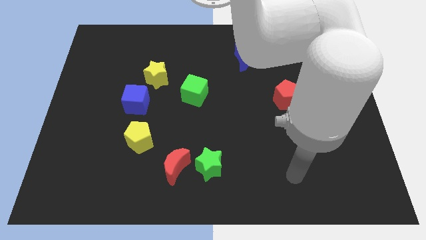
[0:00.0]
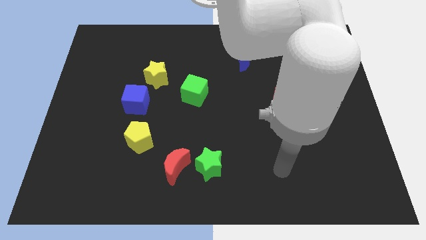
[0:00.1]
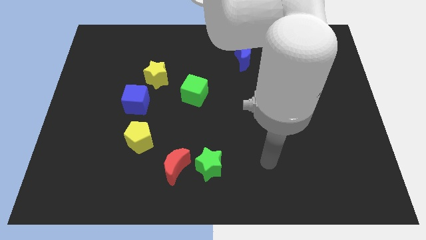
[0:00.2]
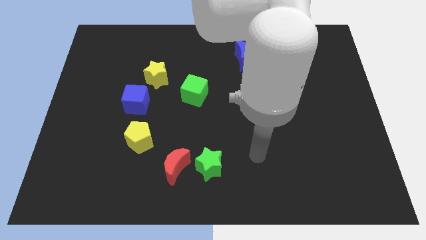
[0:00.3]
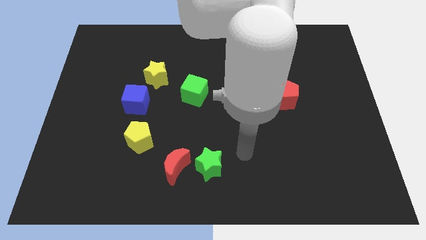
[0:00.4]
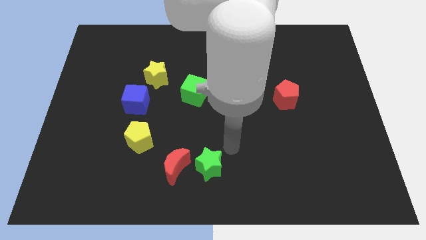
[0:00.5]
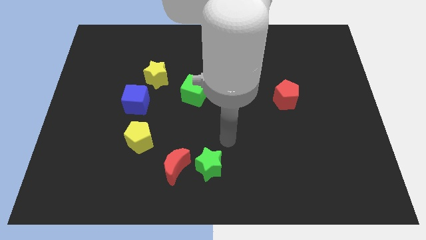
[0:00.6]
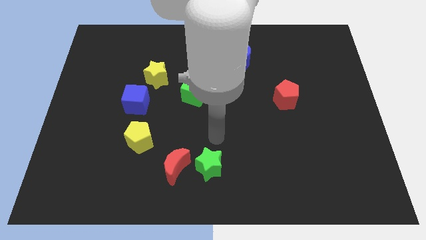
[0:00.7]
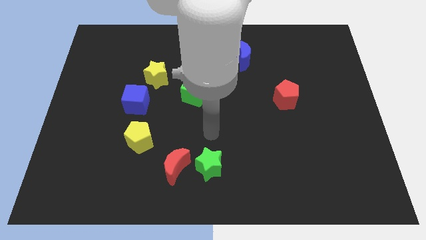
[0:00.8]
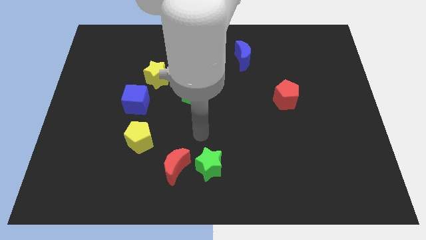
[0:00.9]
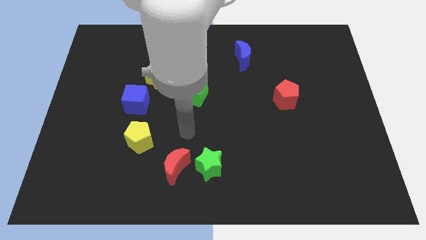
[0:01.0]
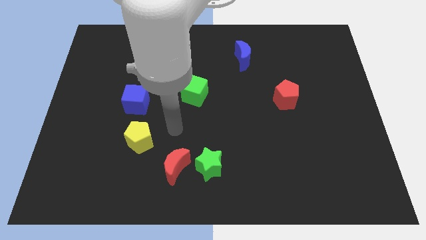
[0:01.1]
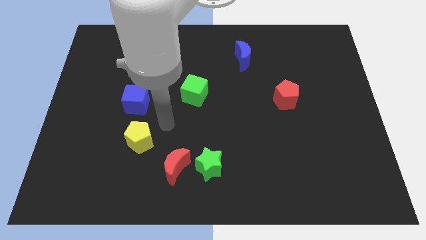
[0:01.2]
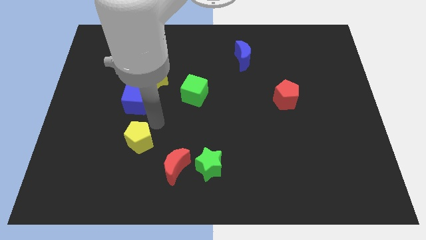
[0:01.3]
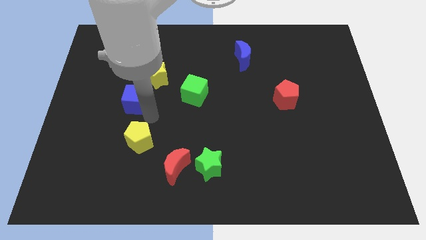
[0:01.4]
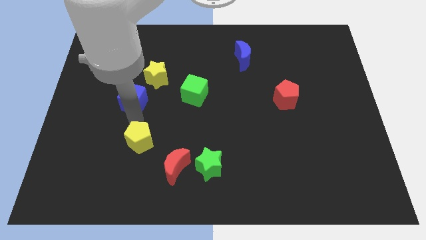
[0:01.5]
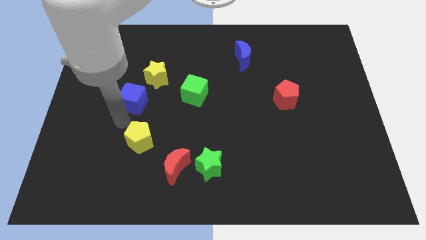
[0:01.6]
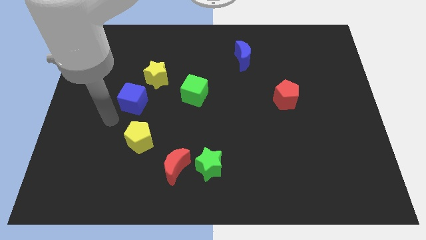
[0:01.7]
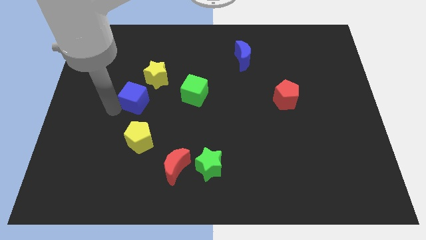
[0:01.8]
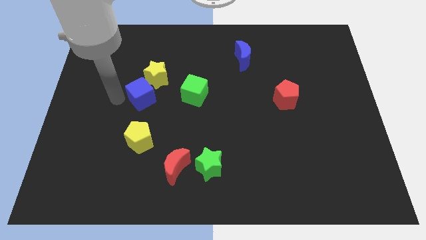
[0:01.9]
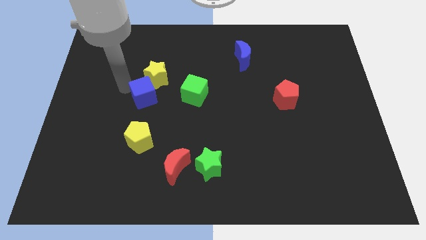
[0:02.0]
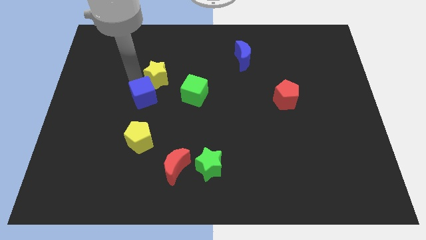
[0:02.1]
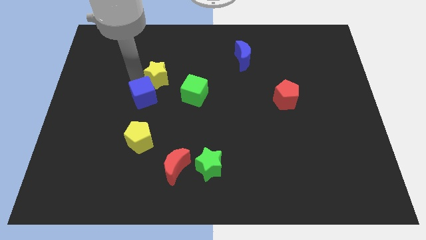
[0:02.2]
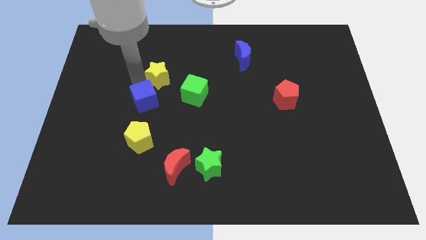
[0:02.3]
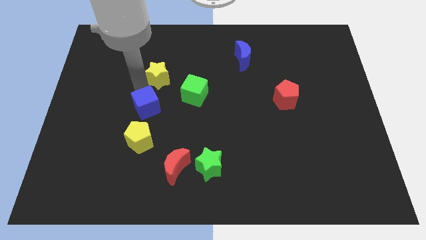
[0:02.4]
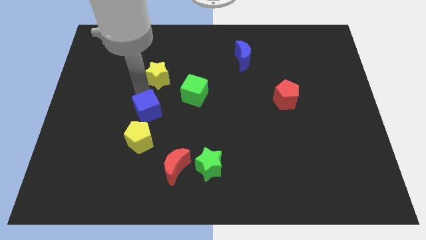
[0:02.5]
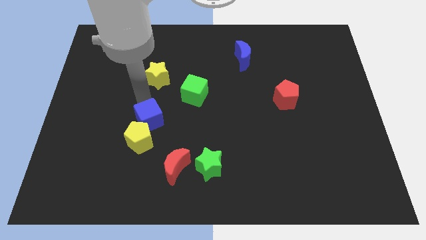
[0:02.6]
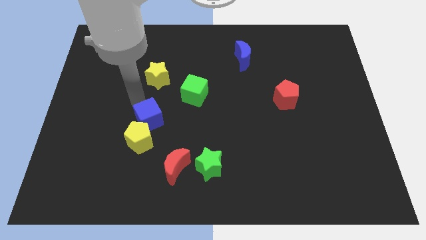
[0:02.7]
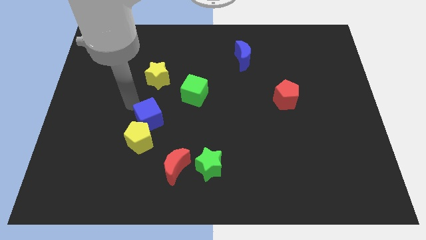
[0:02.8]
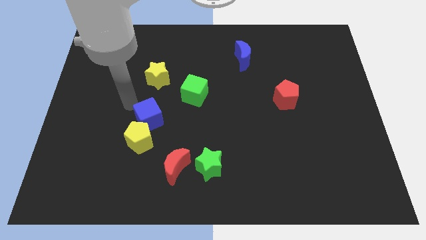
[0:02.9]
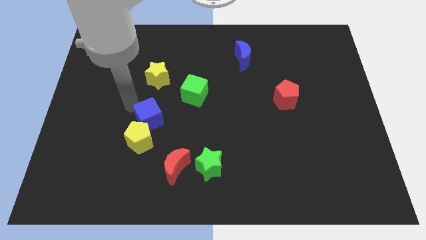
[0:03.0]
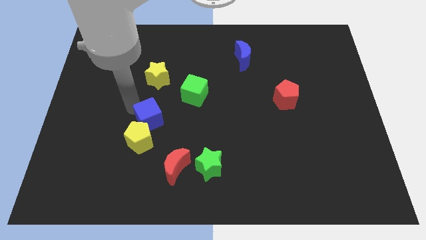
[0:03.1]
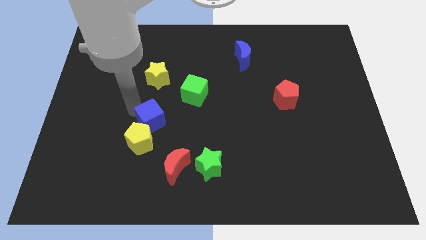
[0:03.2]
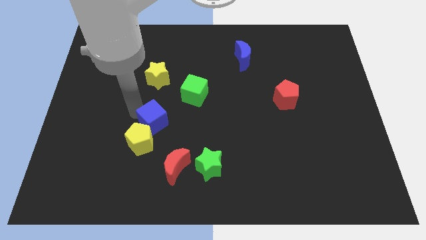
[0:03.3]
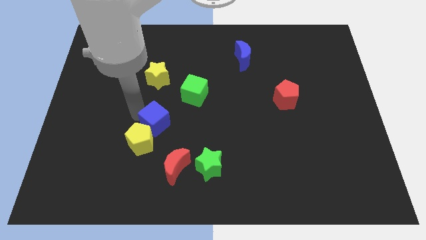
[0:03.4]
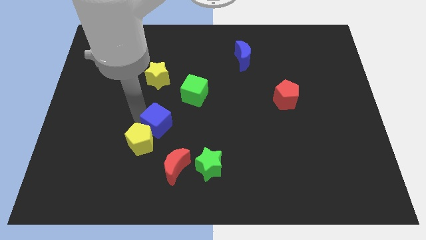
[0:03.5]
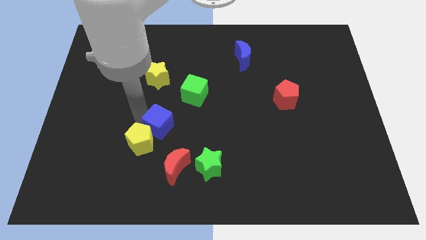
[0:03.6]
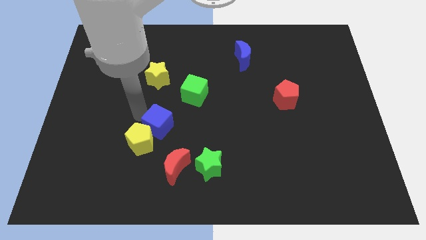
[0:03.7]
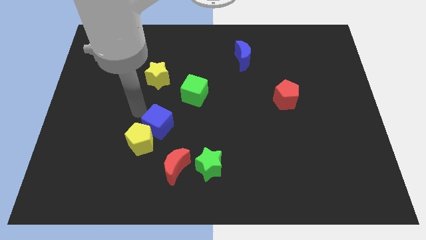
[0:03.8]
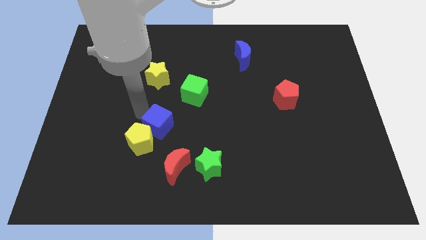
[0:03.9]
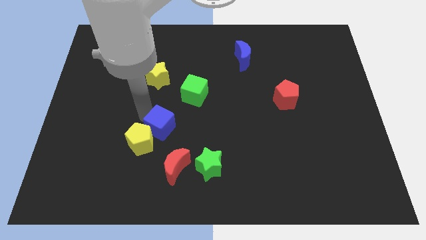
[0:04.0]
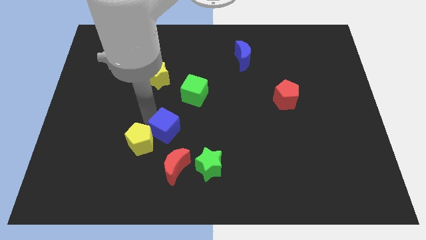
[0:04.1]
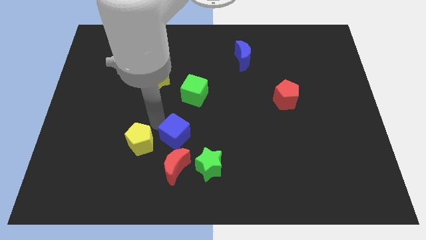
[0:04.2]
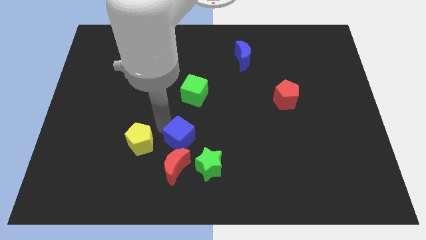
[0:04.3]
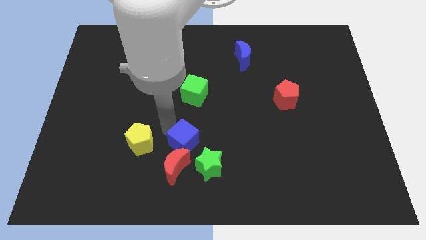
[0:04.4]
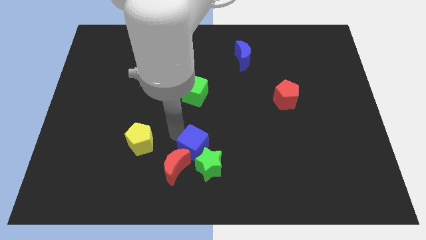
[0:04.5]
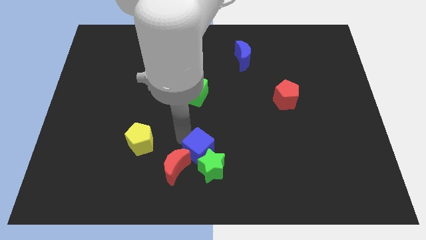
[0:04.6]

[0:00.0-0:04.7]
put the blue cube to the green star

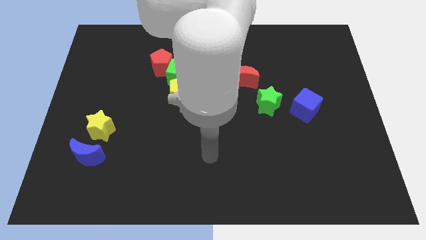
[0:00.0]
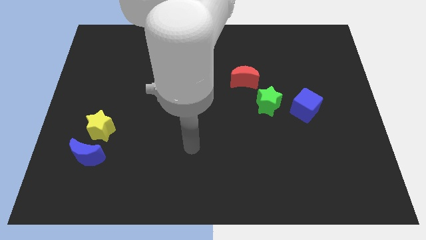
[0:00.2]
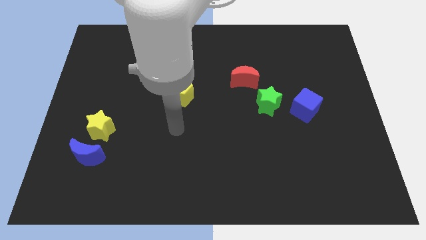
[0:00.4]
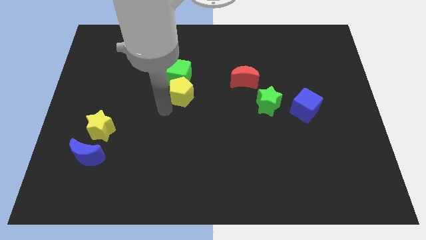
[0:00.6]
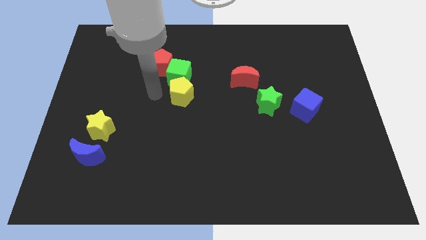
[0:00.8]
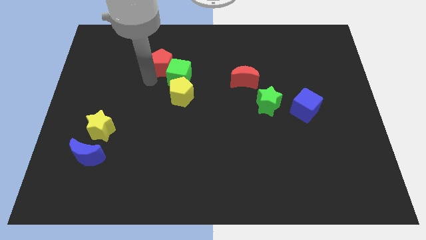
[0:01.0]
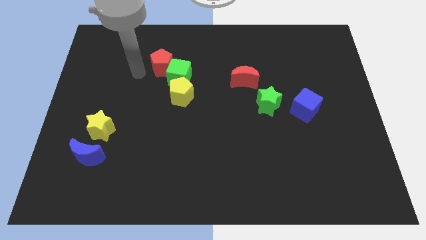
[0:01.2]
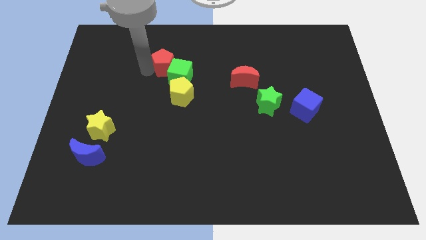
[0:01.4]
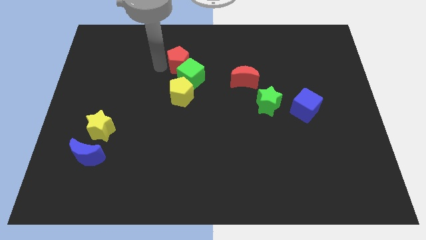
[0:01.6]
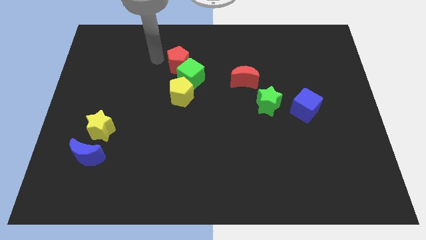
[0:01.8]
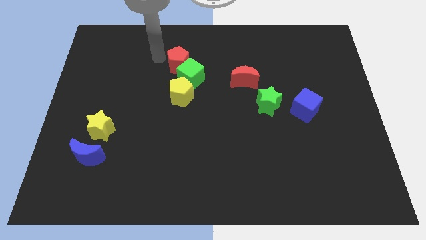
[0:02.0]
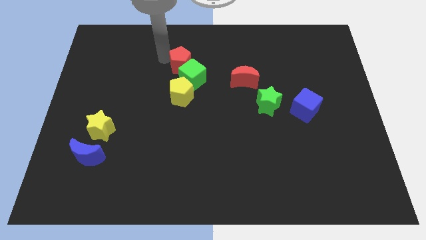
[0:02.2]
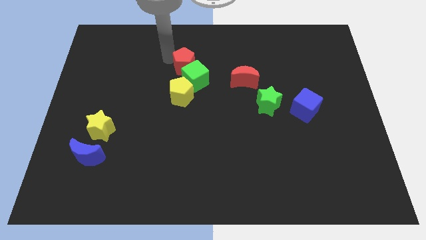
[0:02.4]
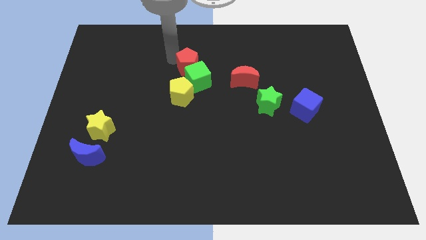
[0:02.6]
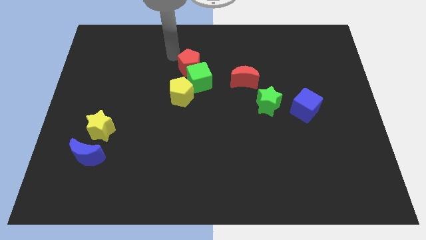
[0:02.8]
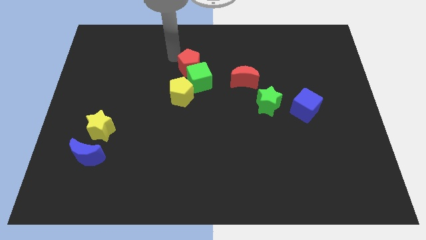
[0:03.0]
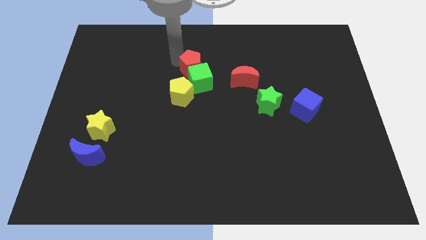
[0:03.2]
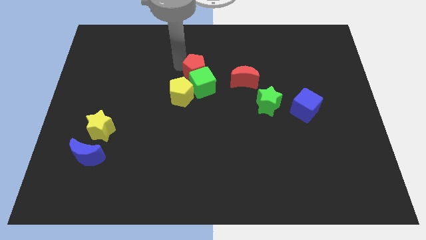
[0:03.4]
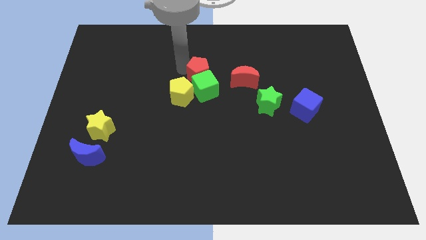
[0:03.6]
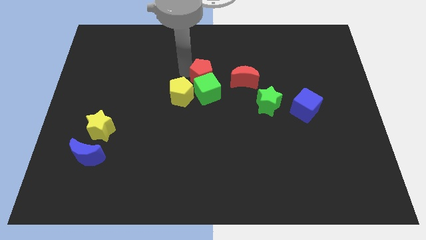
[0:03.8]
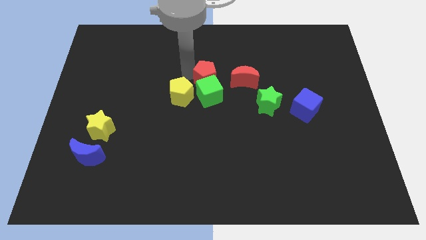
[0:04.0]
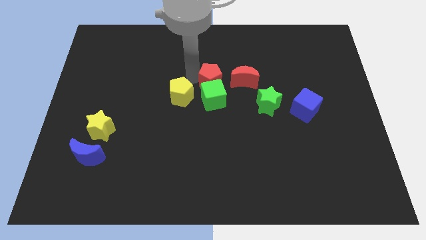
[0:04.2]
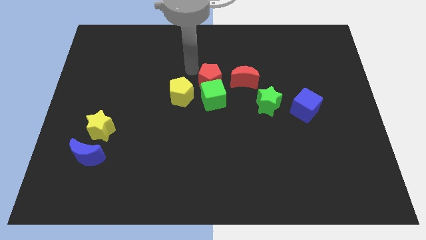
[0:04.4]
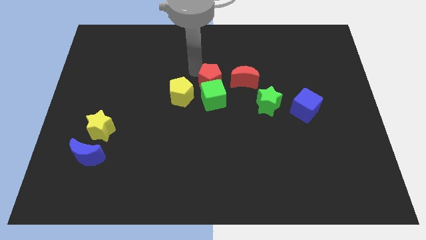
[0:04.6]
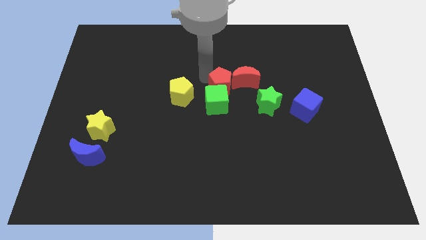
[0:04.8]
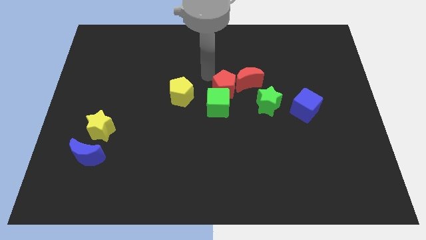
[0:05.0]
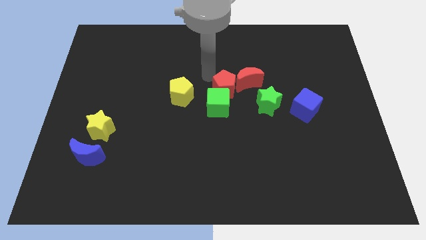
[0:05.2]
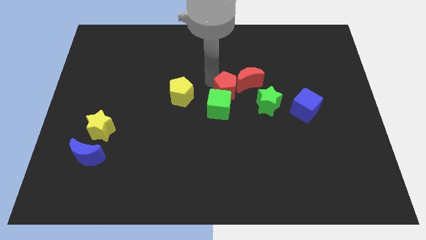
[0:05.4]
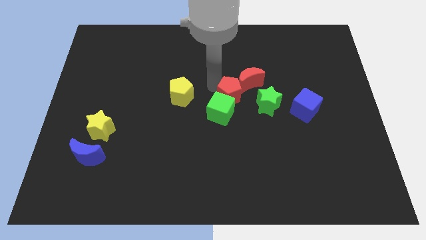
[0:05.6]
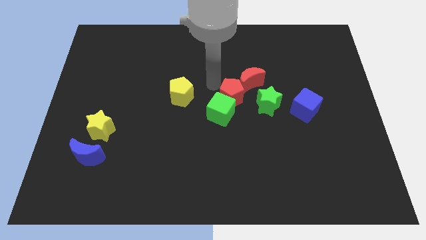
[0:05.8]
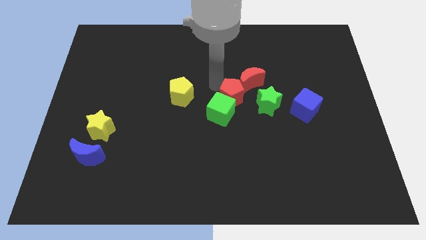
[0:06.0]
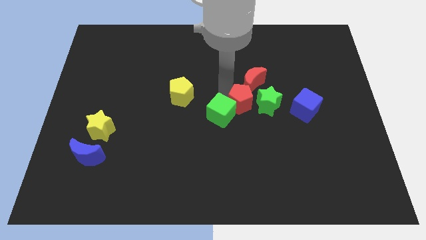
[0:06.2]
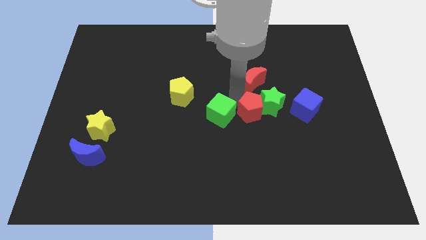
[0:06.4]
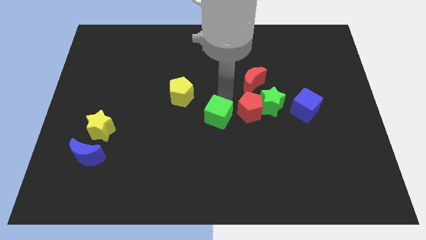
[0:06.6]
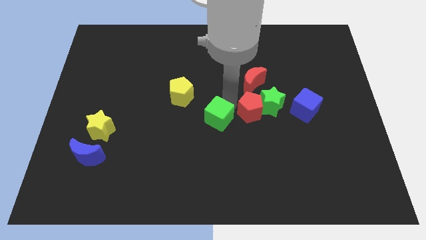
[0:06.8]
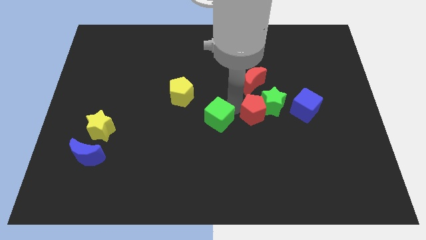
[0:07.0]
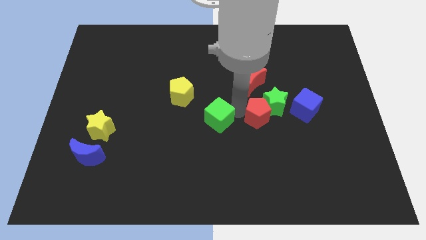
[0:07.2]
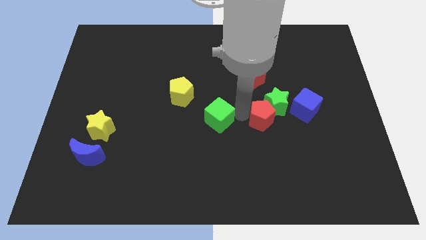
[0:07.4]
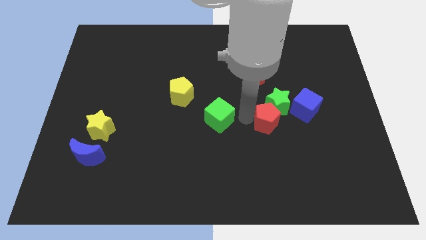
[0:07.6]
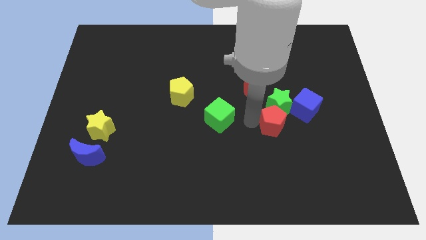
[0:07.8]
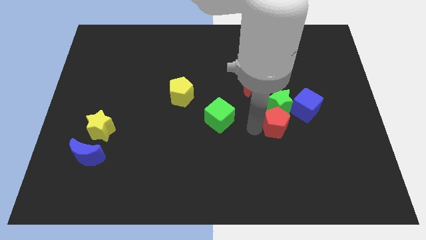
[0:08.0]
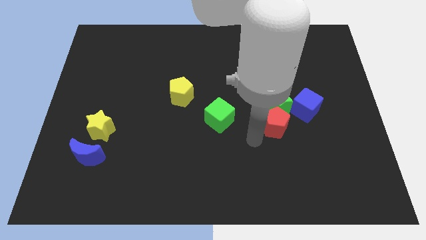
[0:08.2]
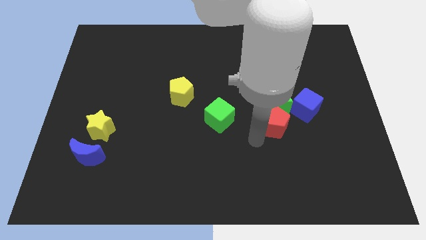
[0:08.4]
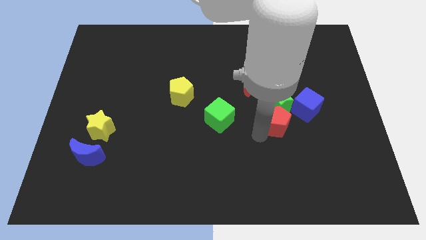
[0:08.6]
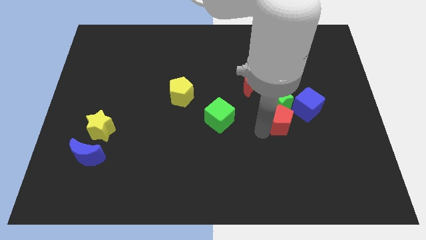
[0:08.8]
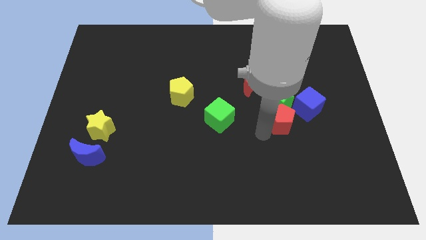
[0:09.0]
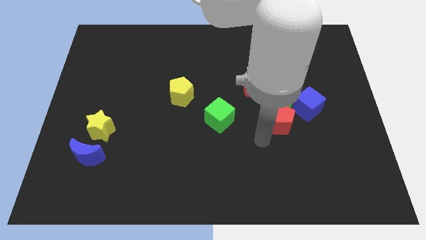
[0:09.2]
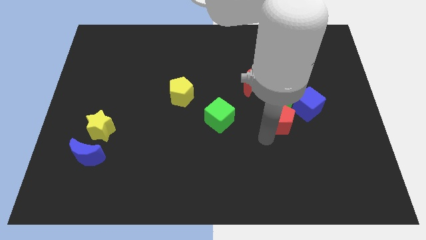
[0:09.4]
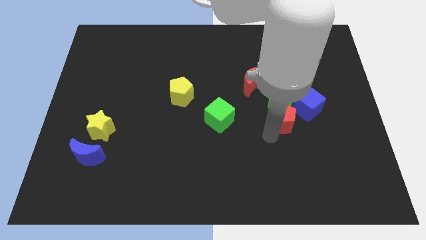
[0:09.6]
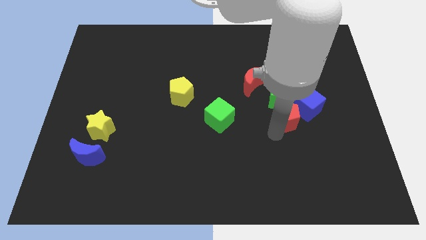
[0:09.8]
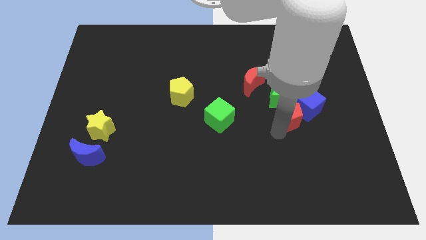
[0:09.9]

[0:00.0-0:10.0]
move the red pentagon towards the blue cube
